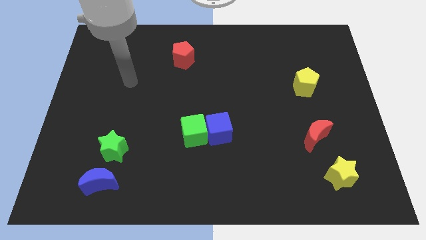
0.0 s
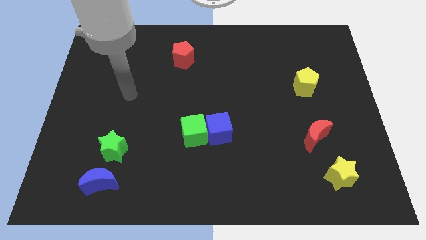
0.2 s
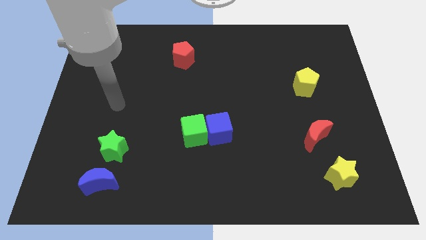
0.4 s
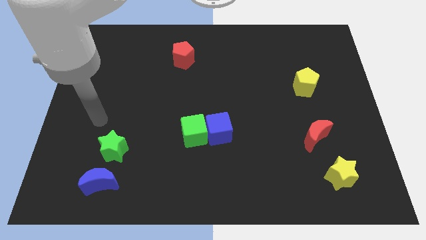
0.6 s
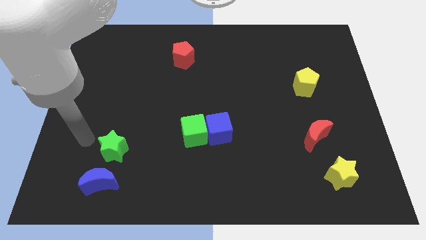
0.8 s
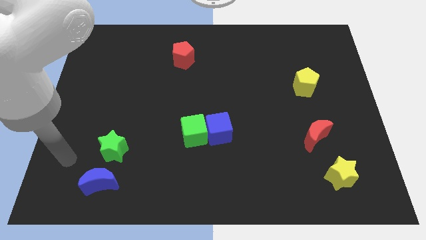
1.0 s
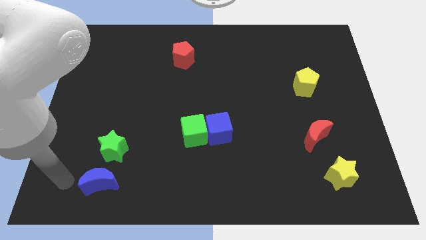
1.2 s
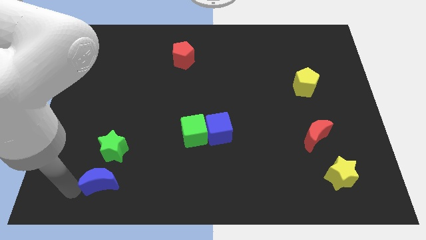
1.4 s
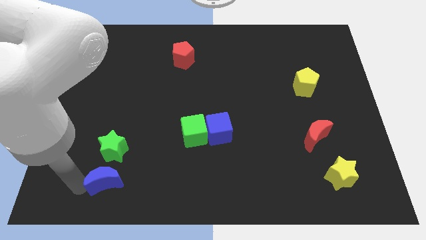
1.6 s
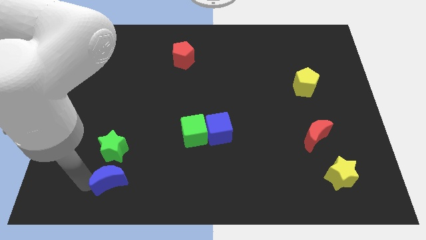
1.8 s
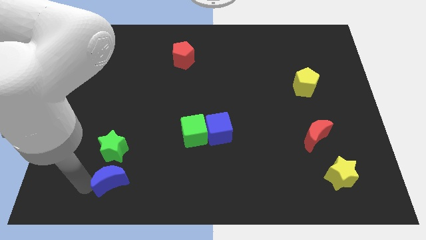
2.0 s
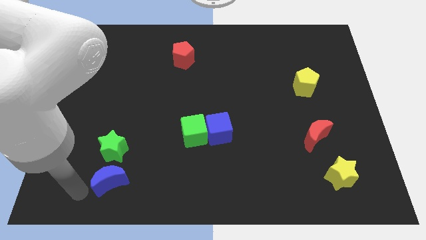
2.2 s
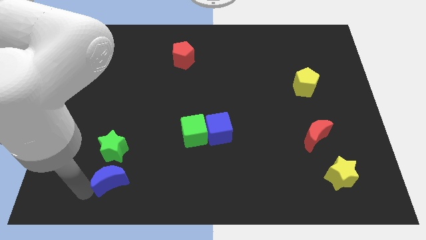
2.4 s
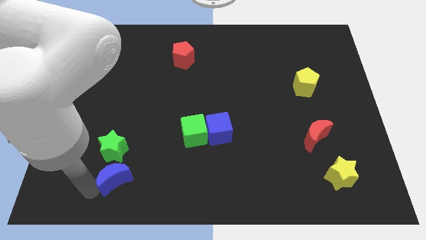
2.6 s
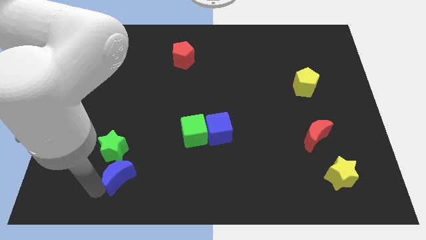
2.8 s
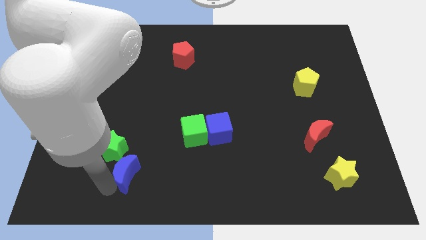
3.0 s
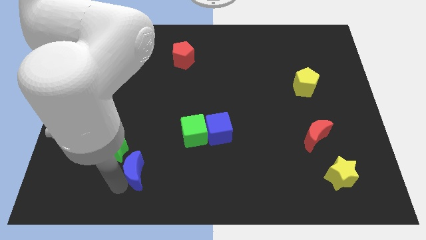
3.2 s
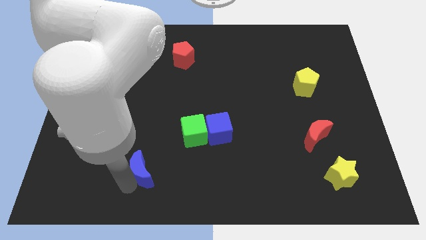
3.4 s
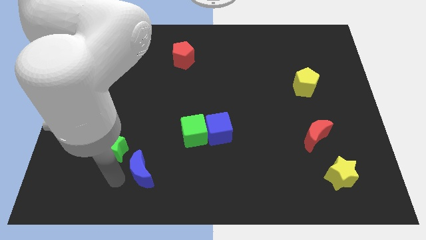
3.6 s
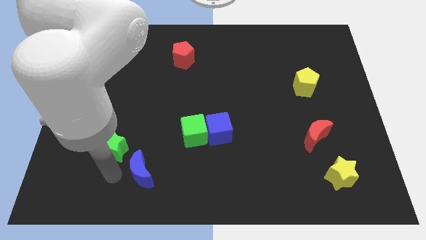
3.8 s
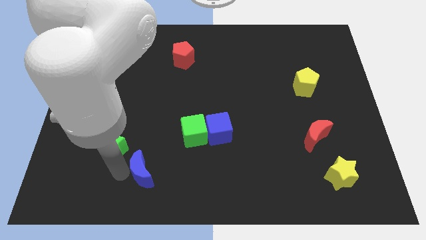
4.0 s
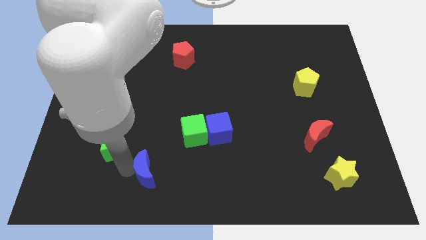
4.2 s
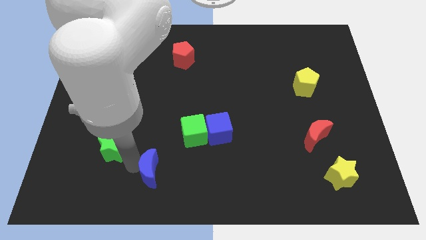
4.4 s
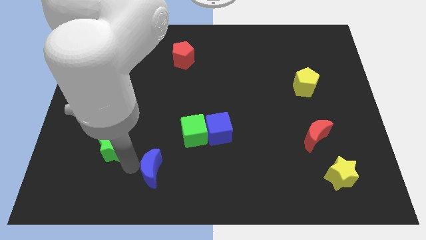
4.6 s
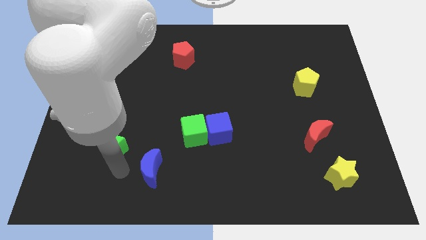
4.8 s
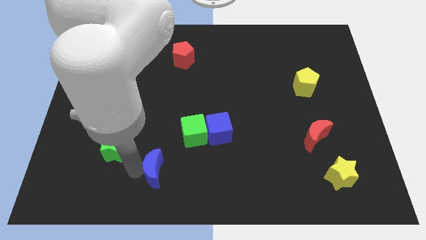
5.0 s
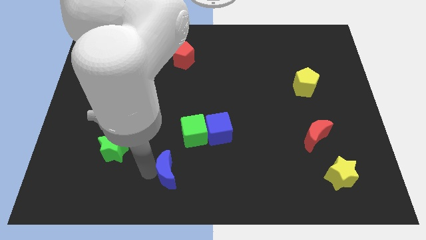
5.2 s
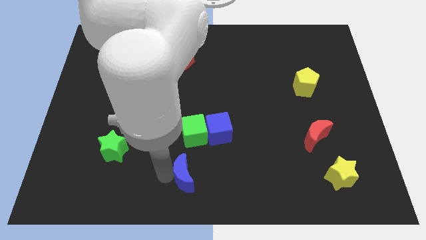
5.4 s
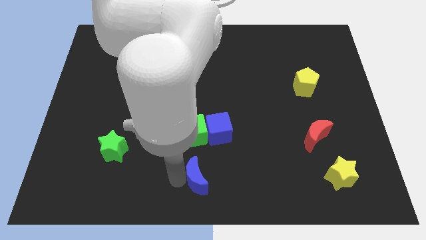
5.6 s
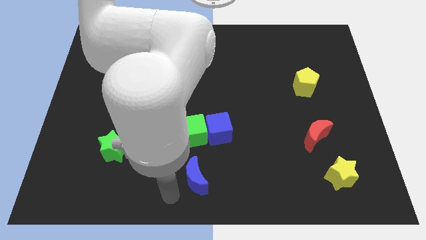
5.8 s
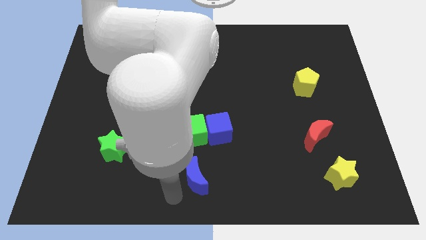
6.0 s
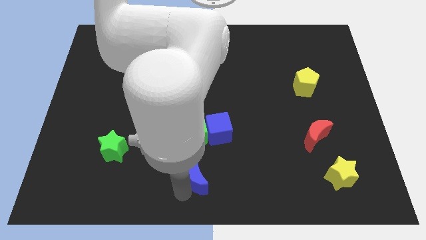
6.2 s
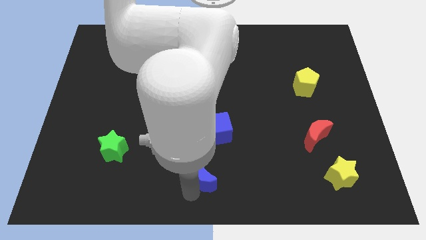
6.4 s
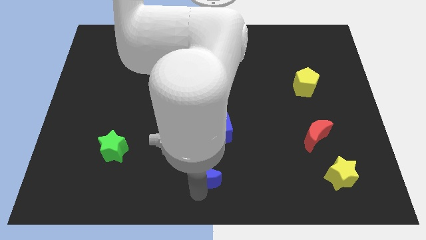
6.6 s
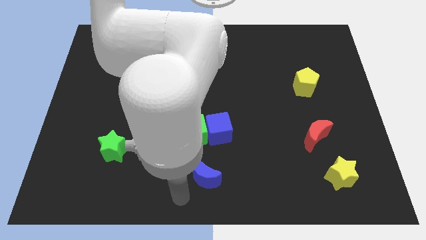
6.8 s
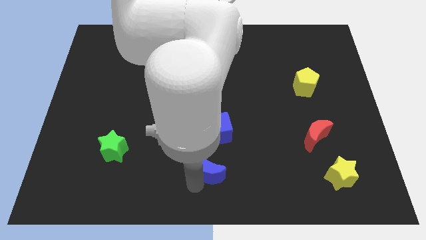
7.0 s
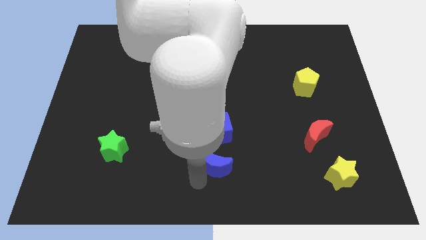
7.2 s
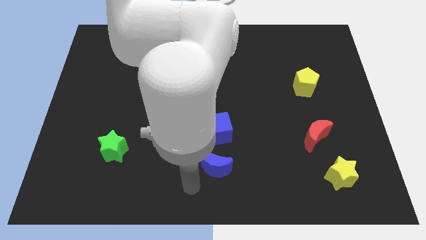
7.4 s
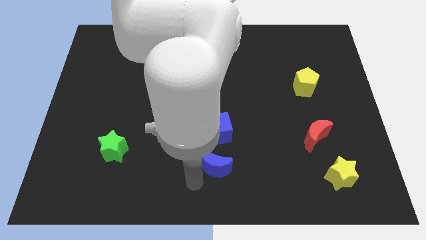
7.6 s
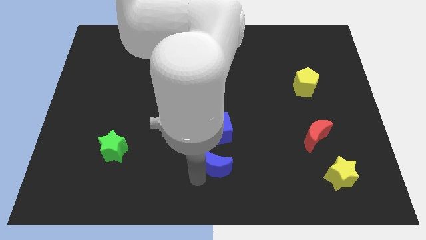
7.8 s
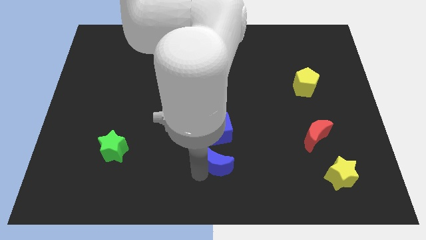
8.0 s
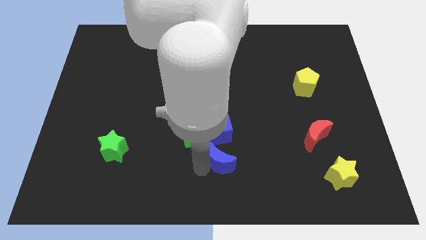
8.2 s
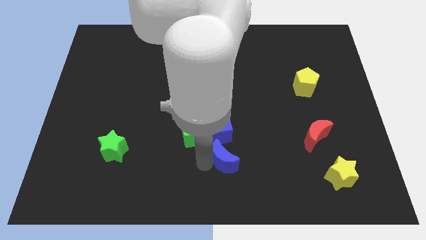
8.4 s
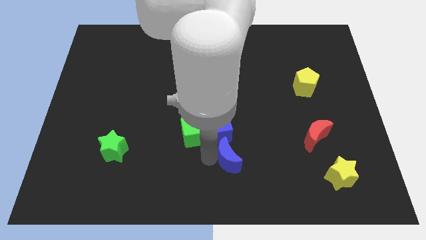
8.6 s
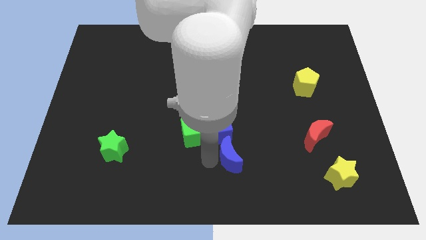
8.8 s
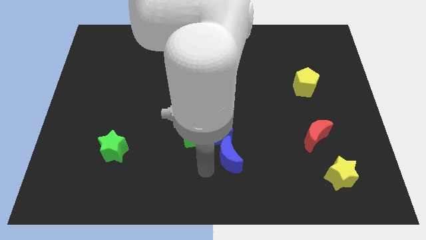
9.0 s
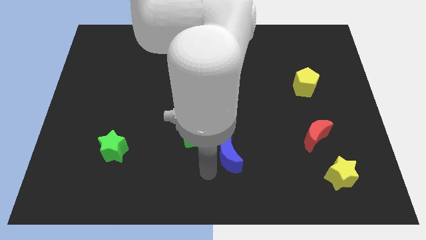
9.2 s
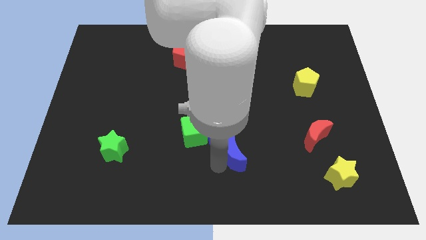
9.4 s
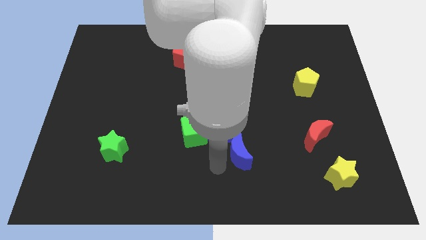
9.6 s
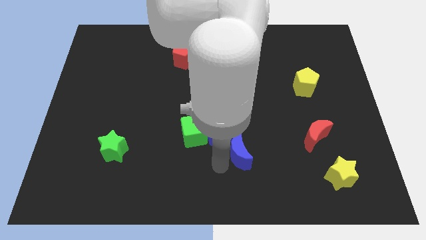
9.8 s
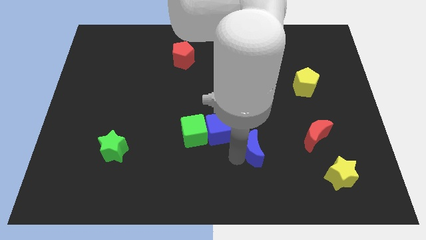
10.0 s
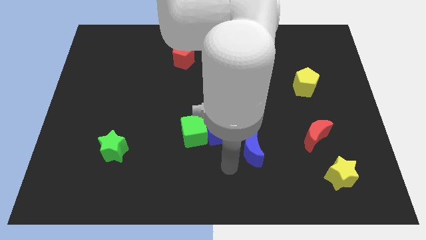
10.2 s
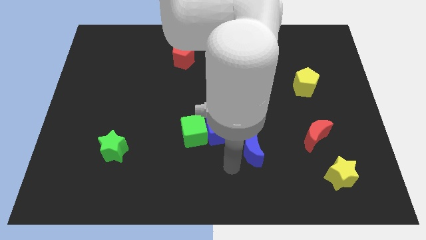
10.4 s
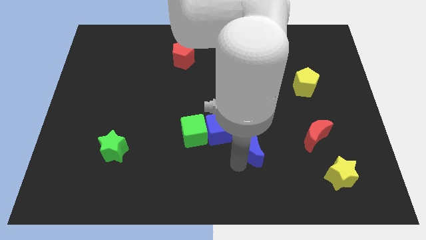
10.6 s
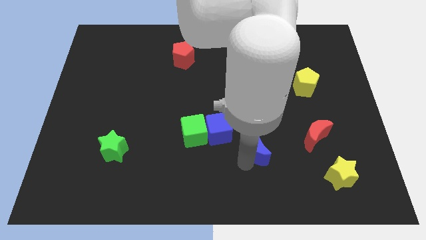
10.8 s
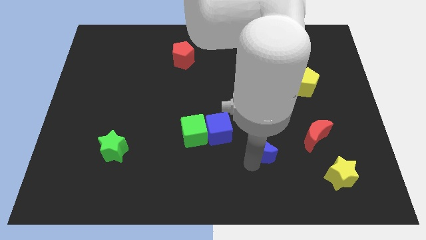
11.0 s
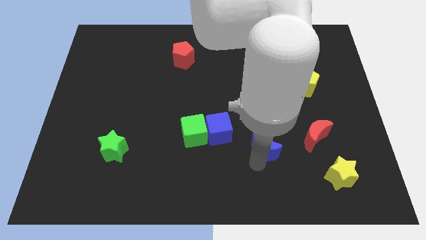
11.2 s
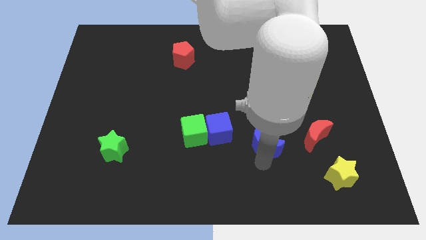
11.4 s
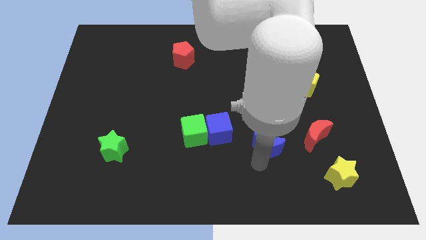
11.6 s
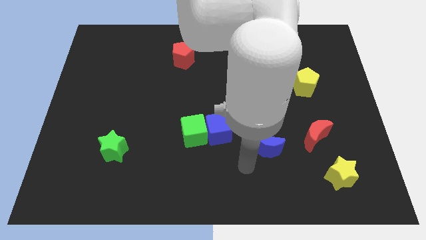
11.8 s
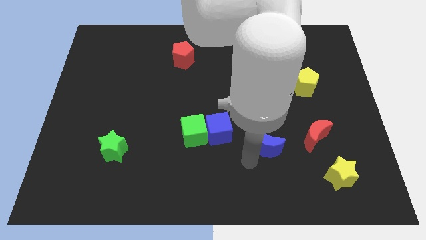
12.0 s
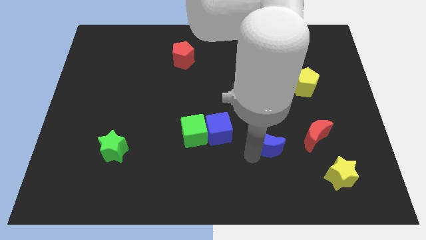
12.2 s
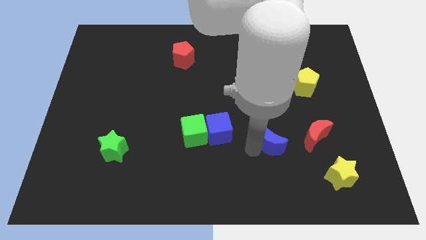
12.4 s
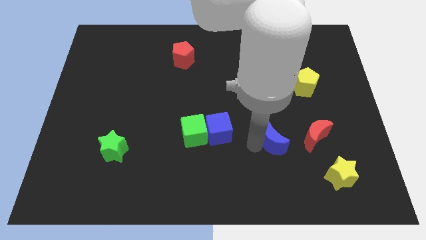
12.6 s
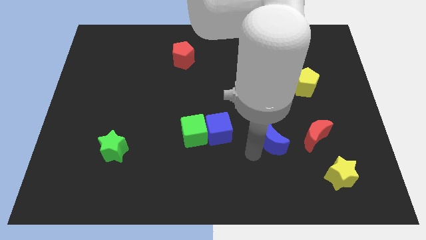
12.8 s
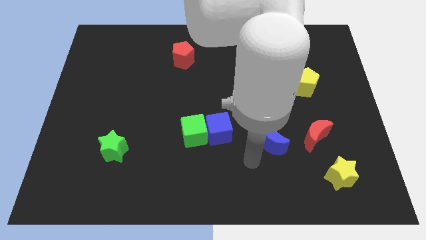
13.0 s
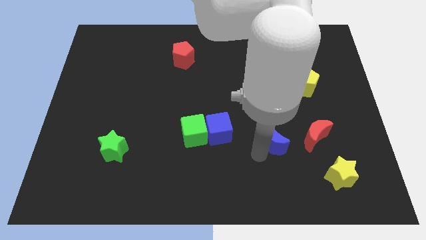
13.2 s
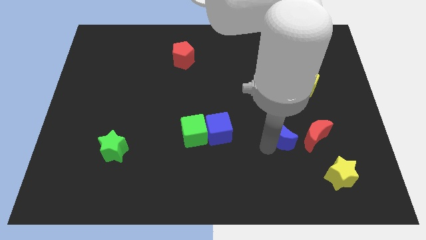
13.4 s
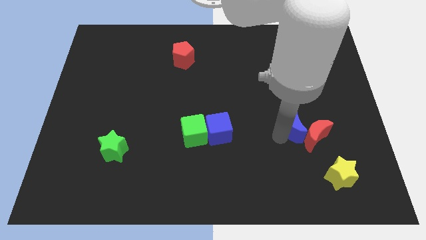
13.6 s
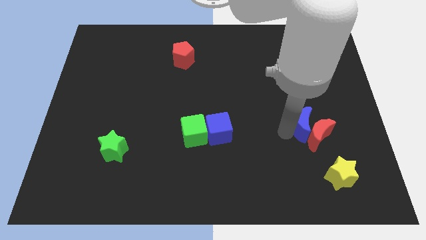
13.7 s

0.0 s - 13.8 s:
move the blue moon to the bottom side of the yellow pentagon
